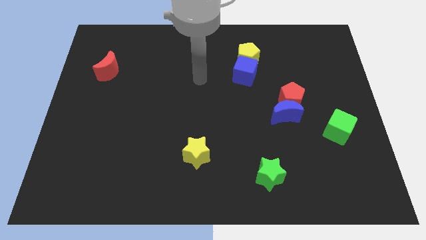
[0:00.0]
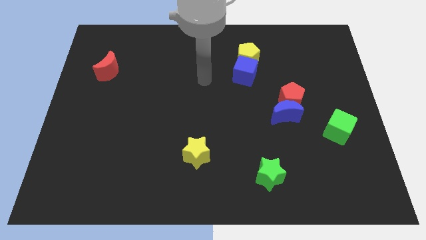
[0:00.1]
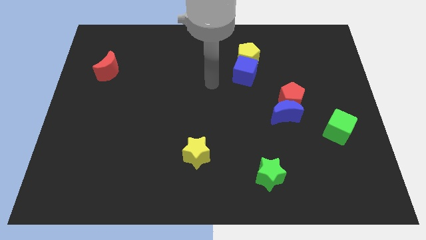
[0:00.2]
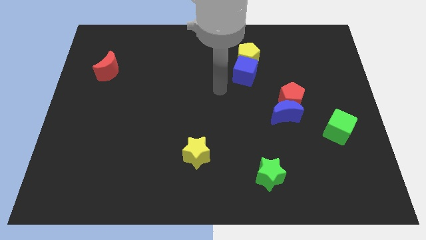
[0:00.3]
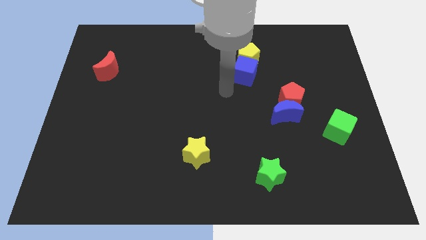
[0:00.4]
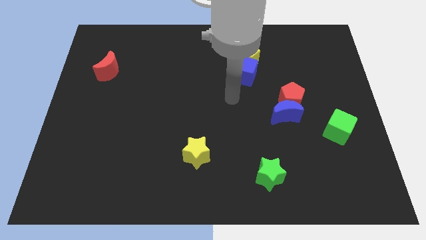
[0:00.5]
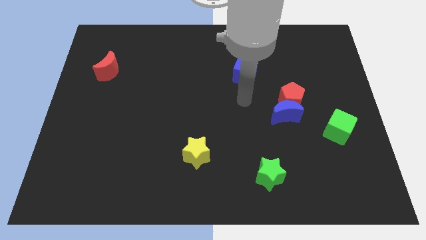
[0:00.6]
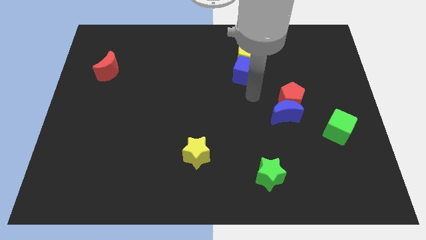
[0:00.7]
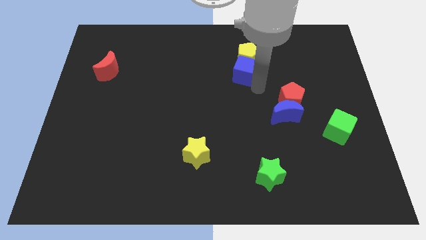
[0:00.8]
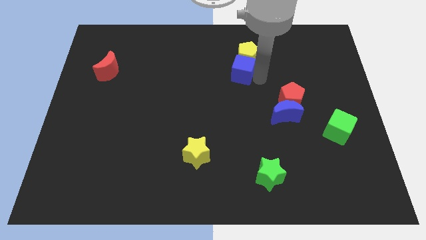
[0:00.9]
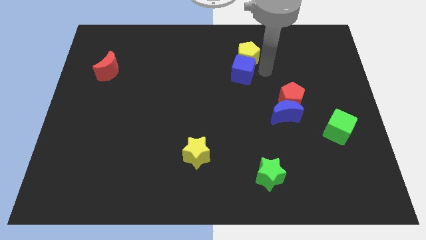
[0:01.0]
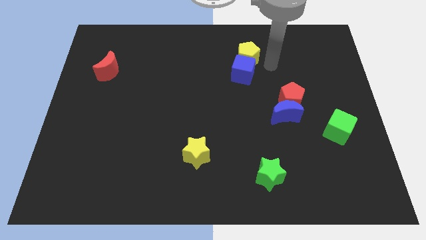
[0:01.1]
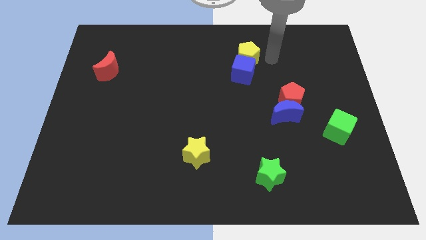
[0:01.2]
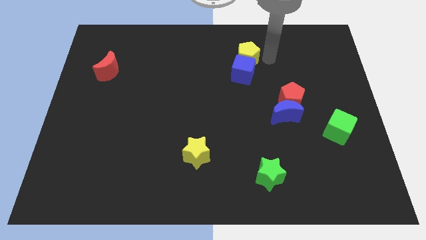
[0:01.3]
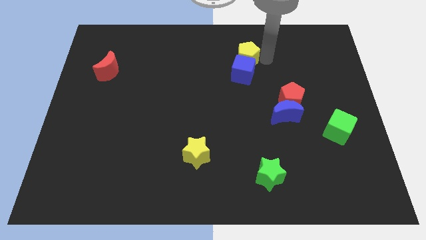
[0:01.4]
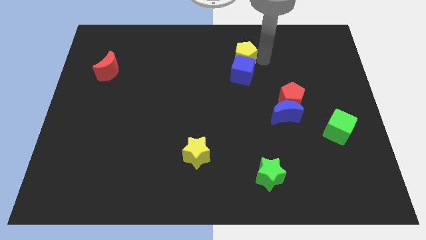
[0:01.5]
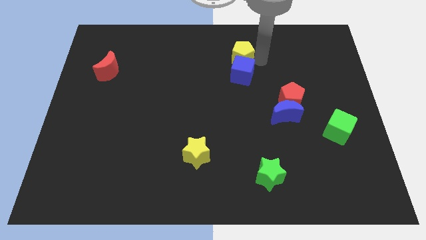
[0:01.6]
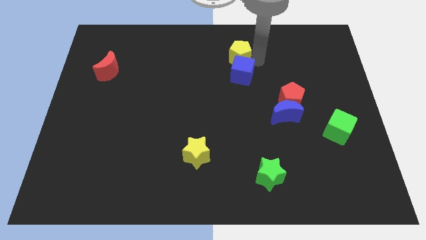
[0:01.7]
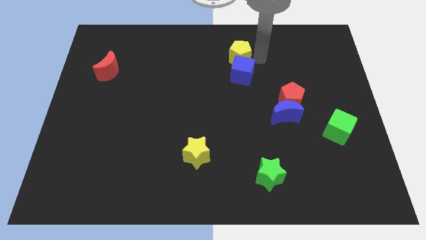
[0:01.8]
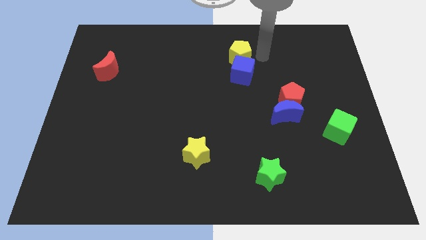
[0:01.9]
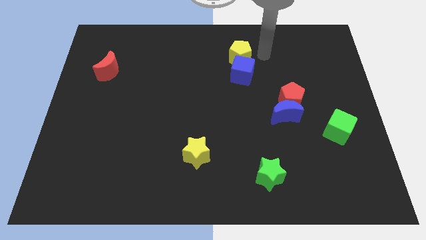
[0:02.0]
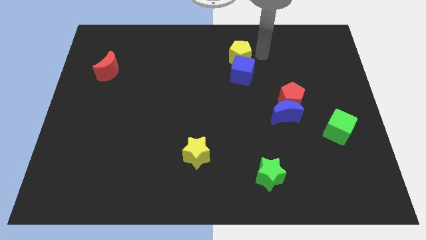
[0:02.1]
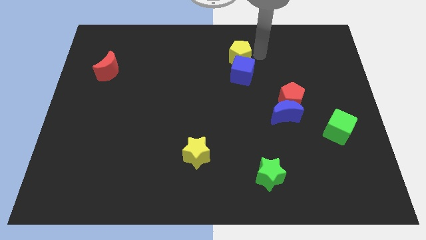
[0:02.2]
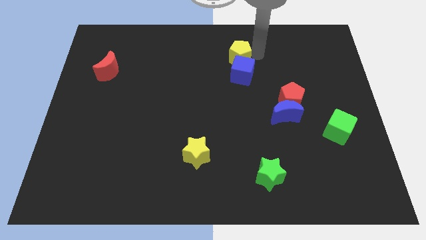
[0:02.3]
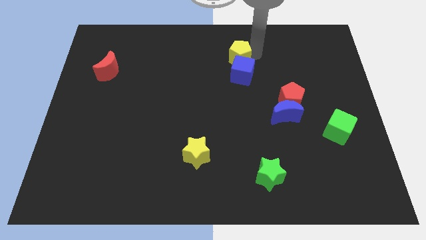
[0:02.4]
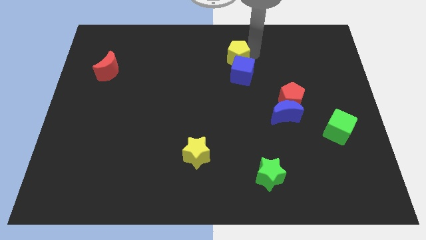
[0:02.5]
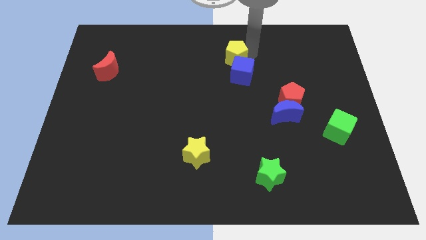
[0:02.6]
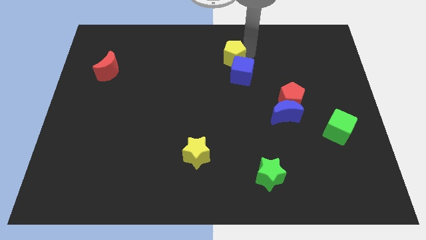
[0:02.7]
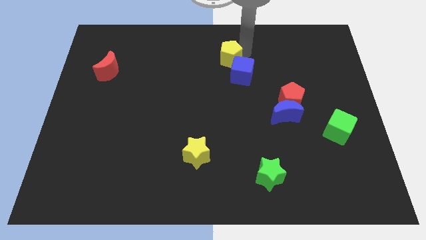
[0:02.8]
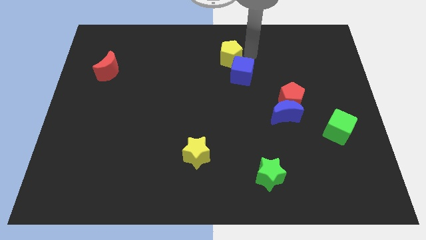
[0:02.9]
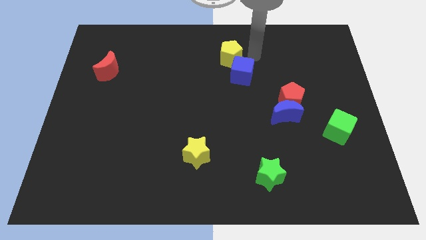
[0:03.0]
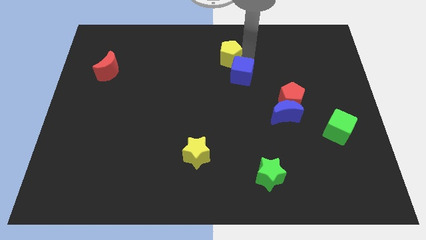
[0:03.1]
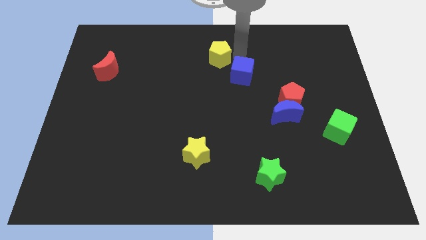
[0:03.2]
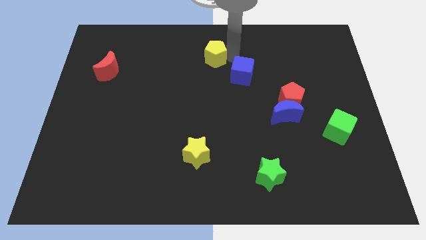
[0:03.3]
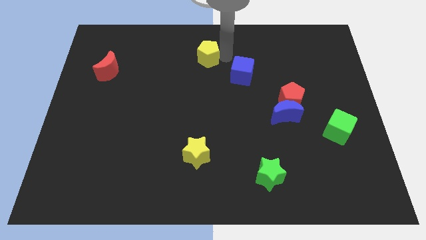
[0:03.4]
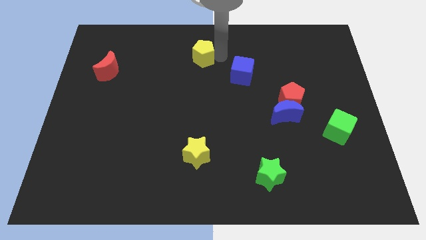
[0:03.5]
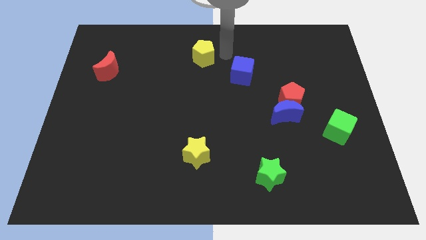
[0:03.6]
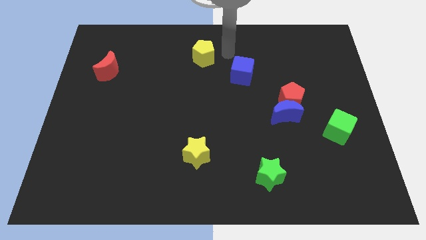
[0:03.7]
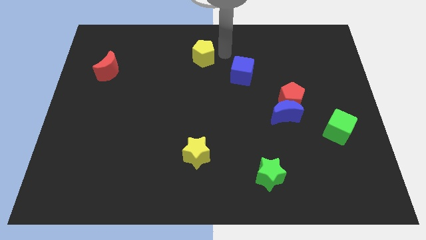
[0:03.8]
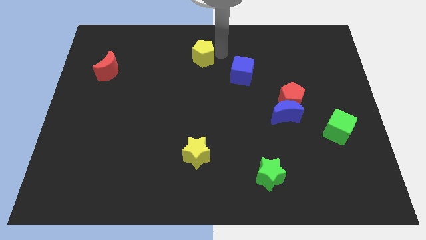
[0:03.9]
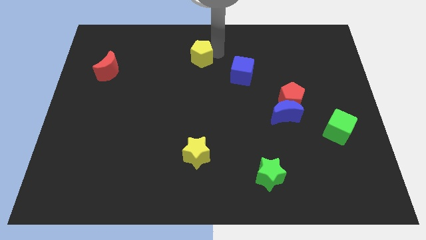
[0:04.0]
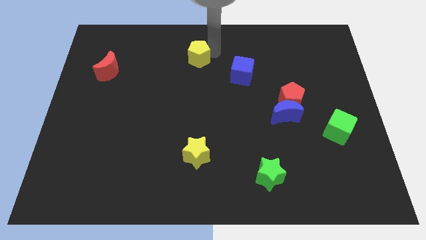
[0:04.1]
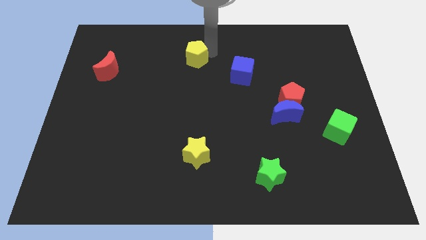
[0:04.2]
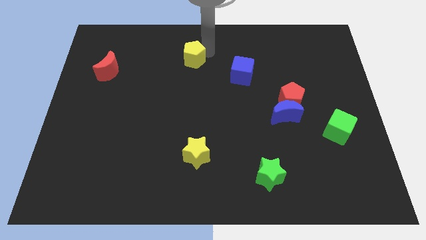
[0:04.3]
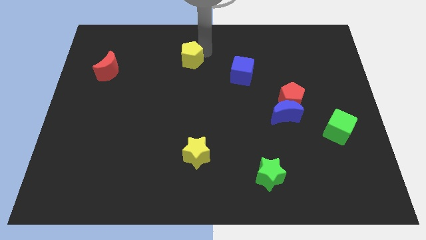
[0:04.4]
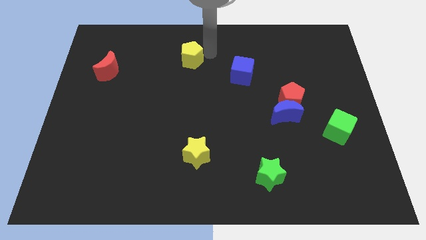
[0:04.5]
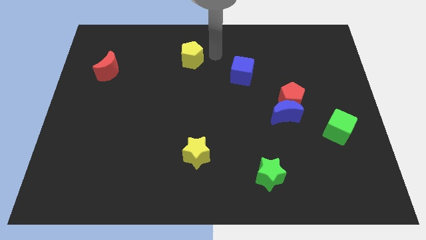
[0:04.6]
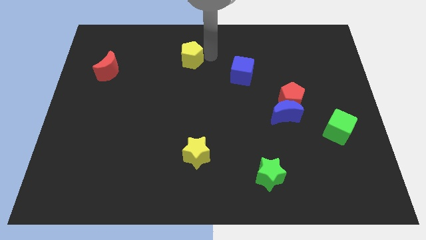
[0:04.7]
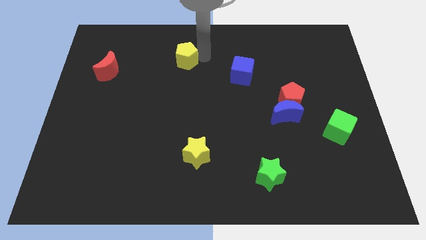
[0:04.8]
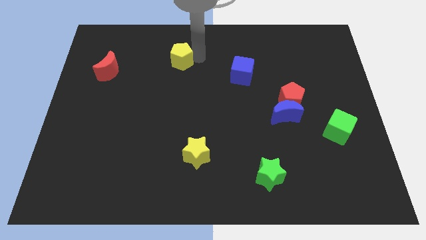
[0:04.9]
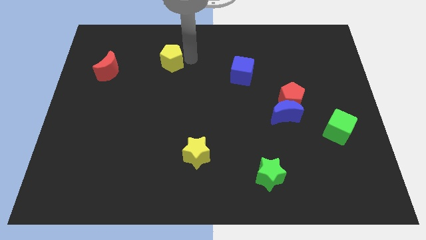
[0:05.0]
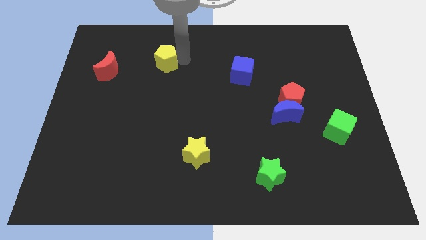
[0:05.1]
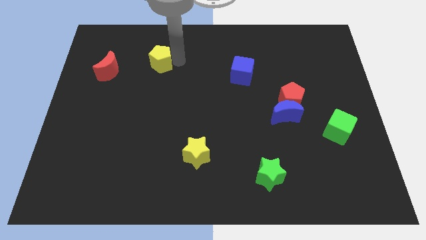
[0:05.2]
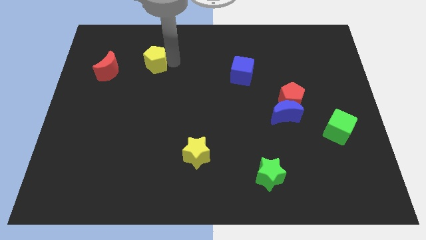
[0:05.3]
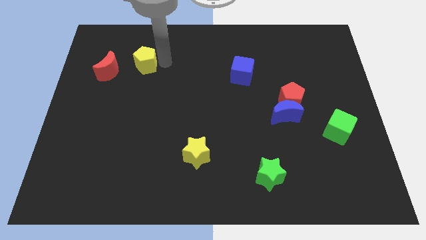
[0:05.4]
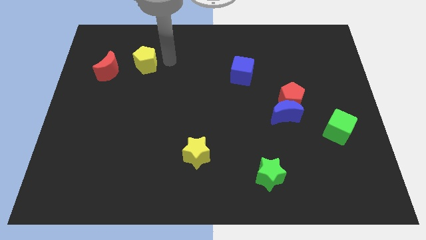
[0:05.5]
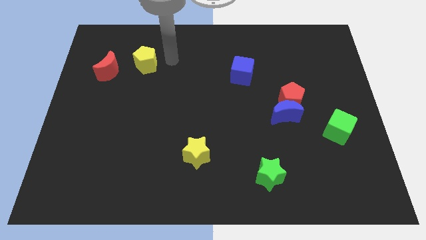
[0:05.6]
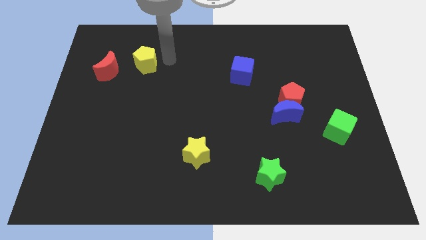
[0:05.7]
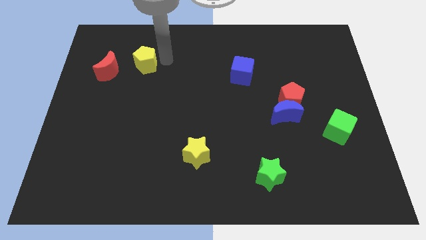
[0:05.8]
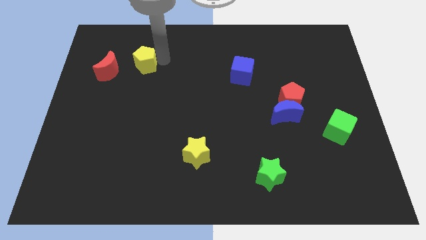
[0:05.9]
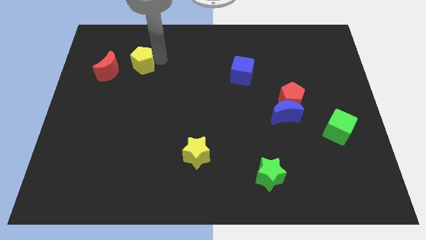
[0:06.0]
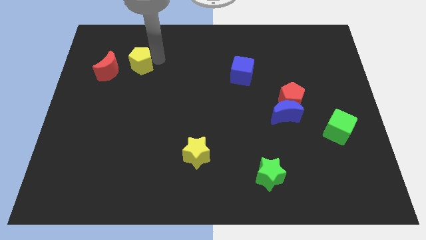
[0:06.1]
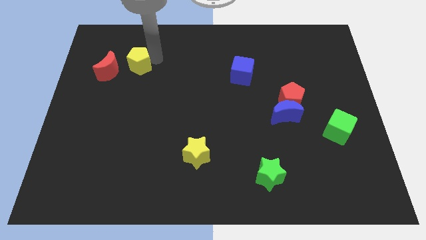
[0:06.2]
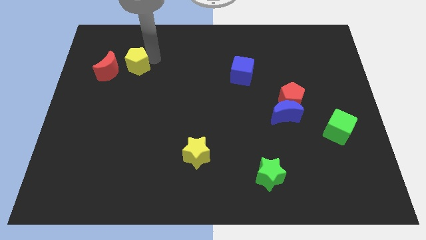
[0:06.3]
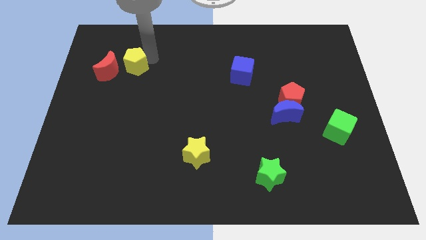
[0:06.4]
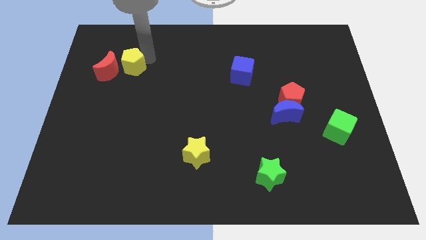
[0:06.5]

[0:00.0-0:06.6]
move the yellow pentagon close to the red moon

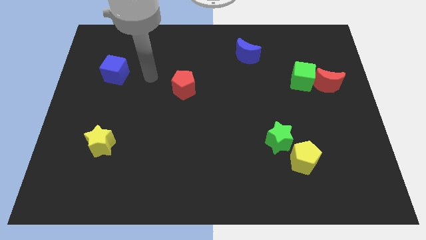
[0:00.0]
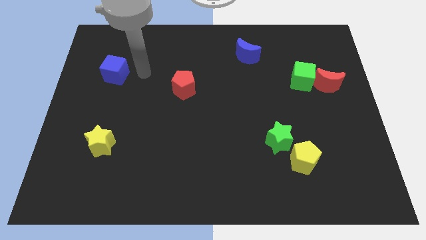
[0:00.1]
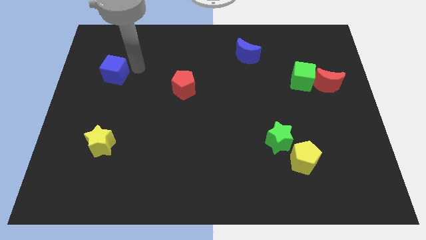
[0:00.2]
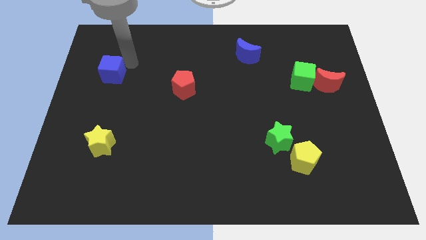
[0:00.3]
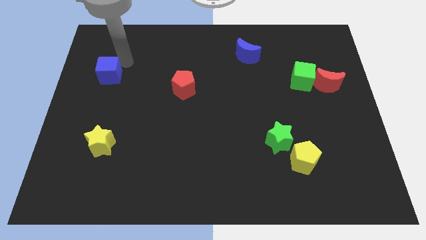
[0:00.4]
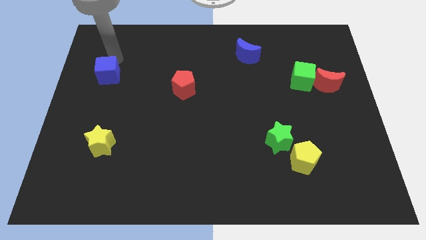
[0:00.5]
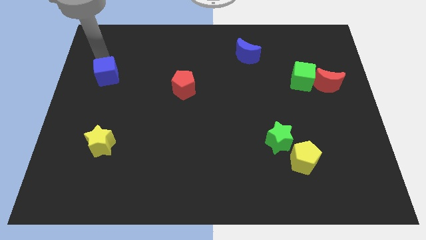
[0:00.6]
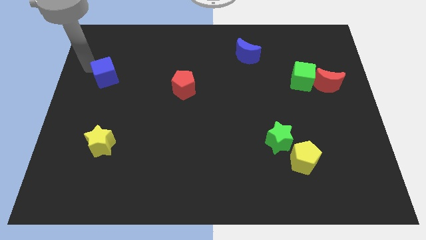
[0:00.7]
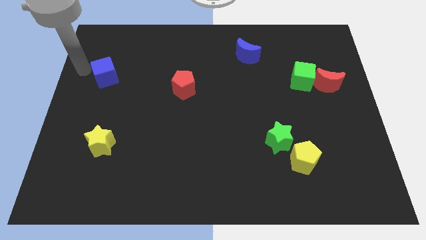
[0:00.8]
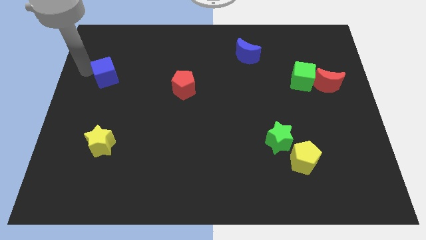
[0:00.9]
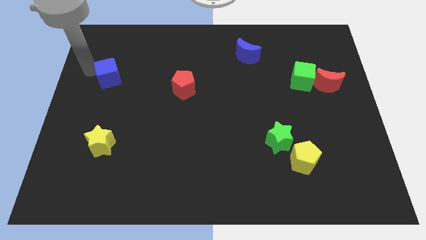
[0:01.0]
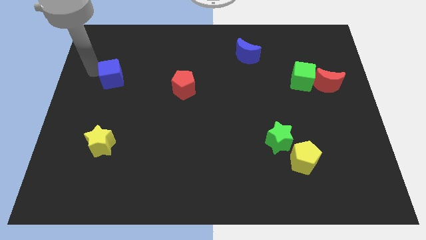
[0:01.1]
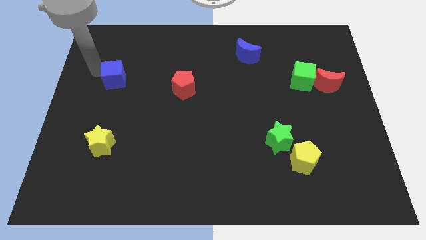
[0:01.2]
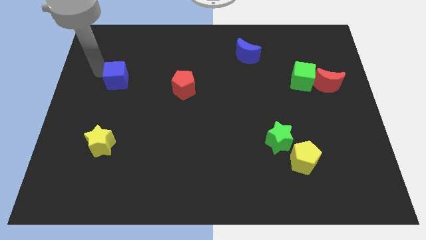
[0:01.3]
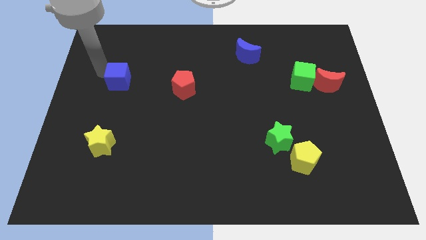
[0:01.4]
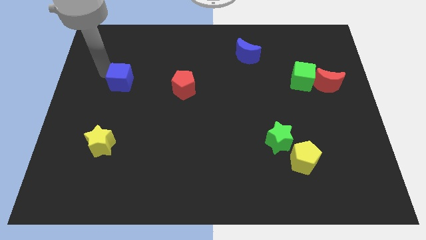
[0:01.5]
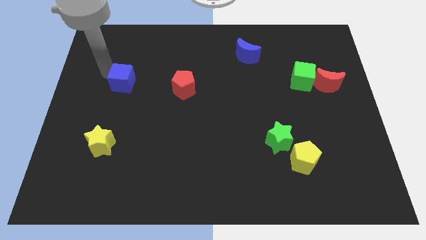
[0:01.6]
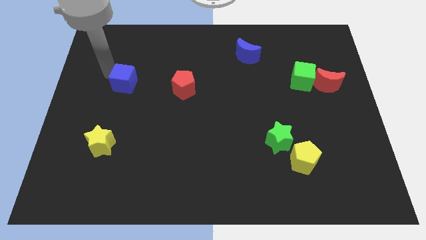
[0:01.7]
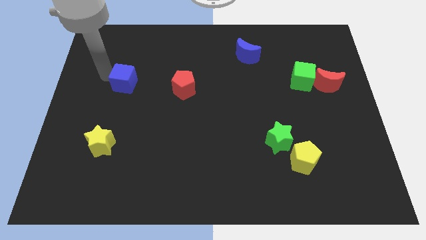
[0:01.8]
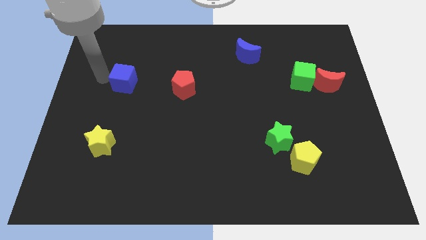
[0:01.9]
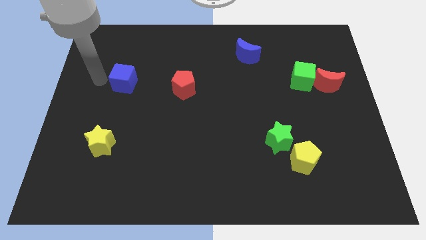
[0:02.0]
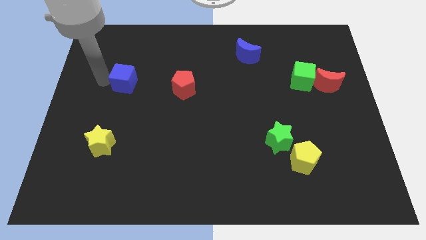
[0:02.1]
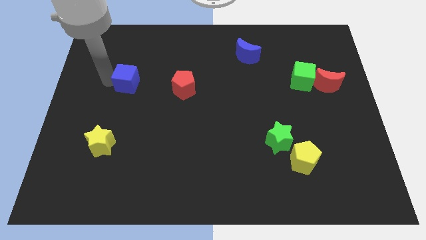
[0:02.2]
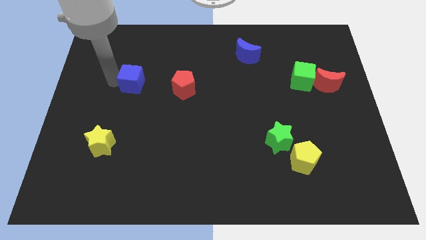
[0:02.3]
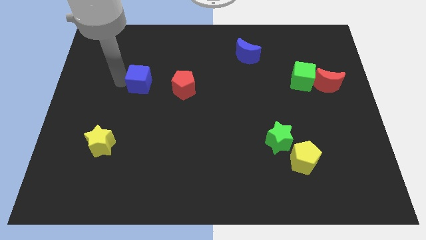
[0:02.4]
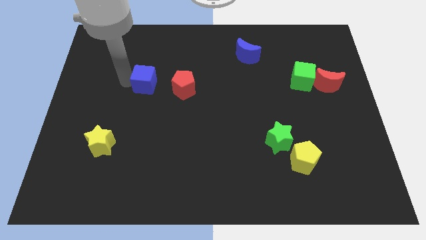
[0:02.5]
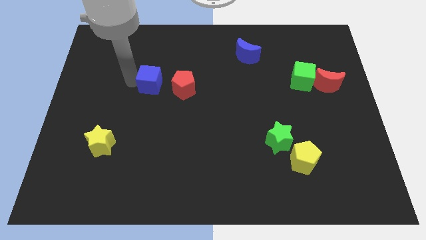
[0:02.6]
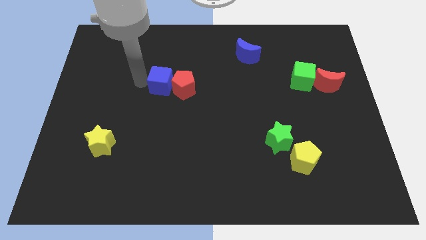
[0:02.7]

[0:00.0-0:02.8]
push the blue cube next to the red pentagon
